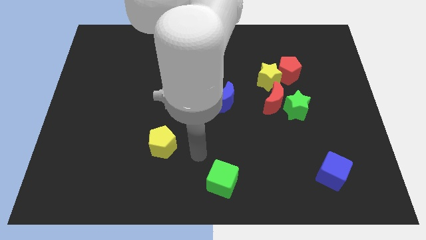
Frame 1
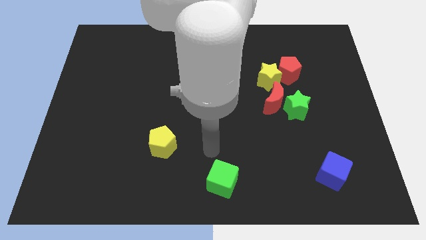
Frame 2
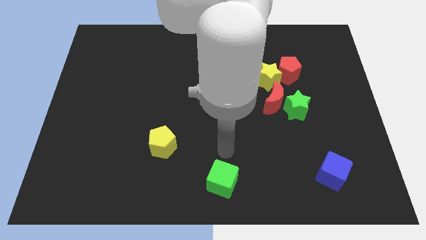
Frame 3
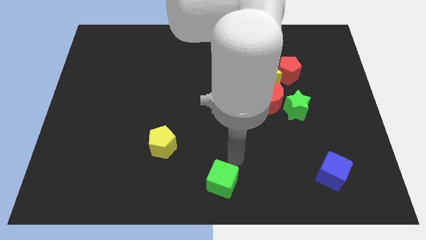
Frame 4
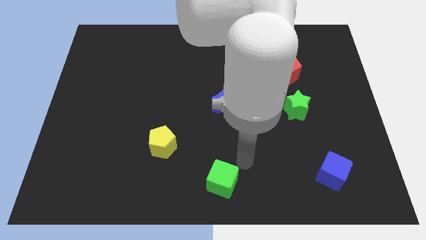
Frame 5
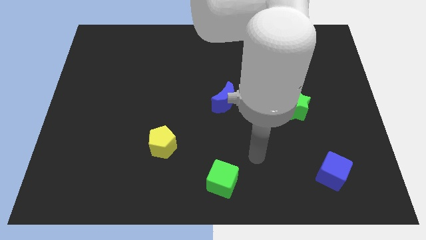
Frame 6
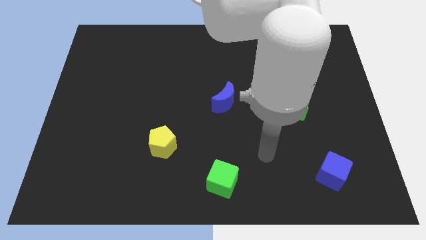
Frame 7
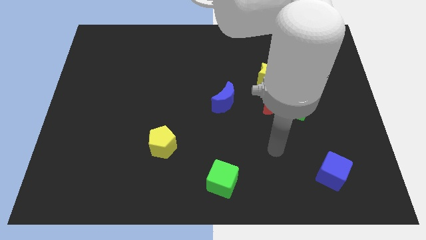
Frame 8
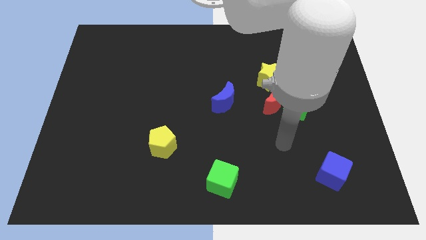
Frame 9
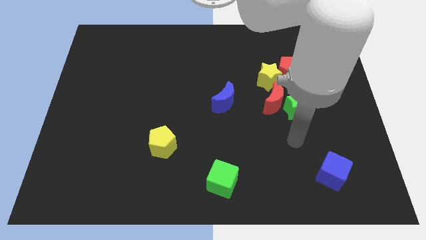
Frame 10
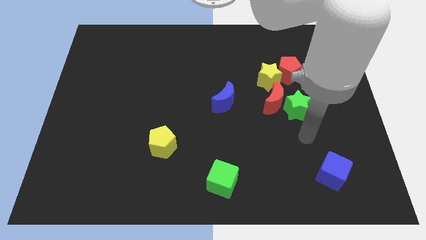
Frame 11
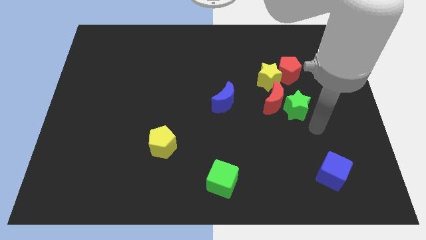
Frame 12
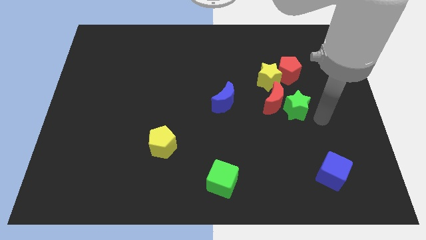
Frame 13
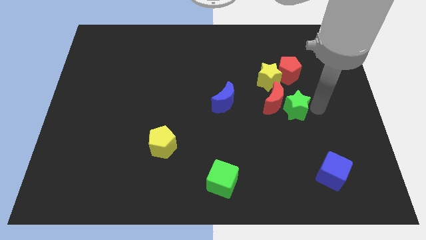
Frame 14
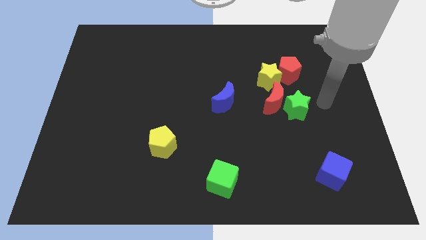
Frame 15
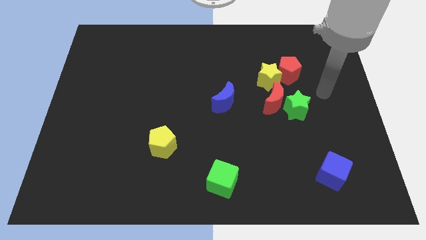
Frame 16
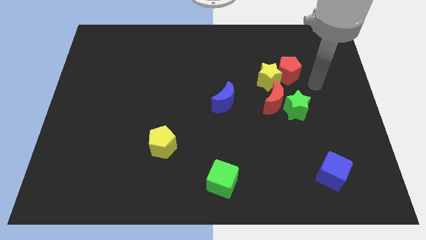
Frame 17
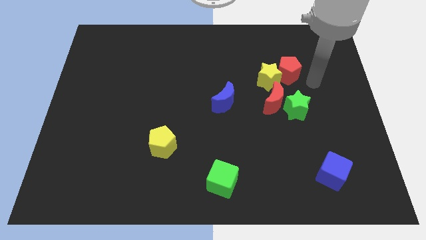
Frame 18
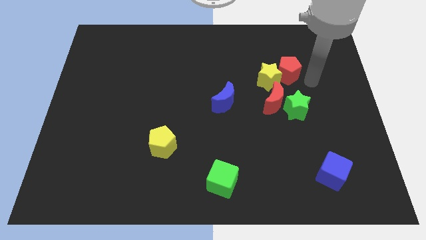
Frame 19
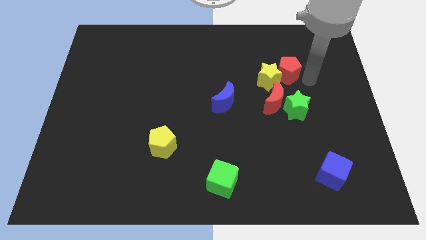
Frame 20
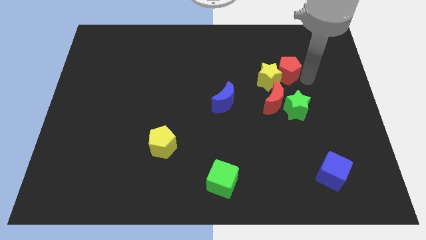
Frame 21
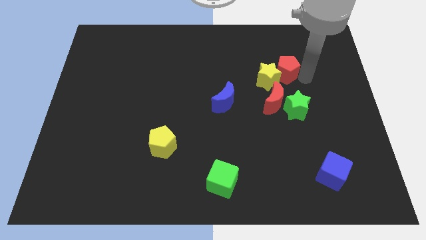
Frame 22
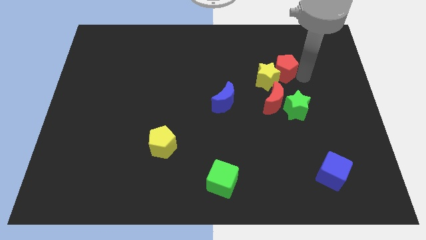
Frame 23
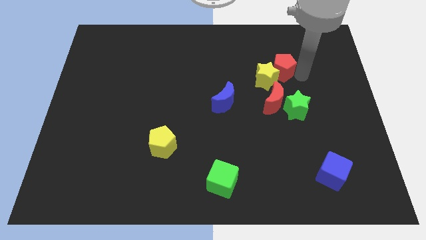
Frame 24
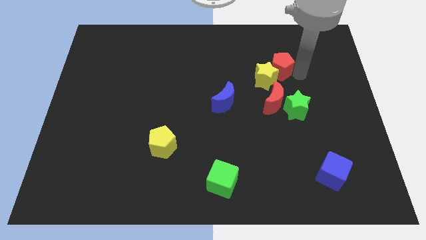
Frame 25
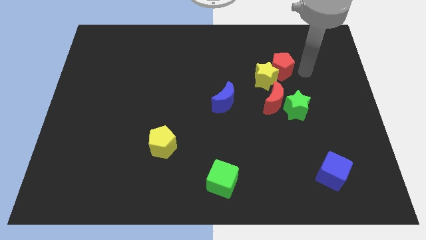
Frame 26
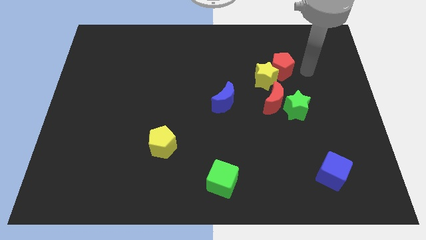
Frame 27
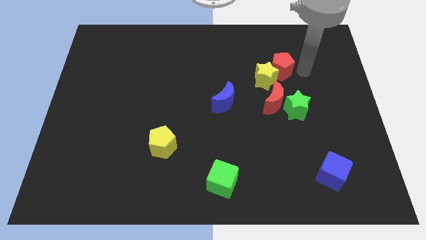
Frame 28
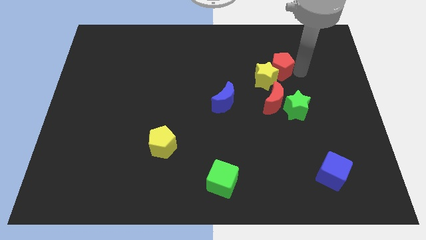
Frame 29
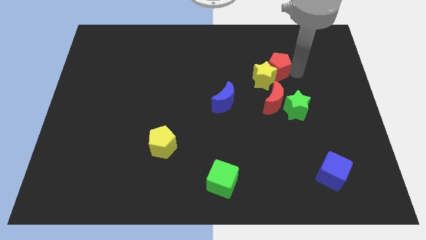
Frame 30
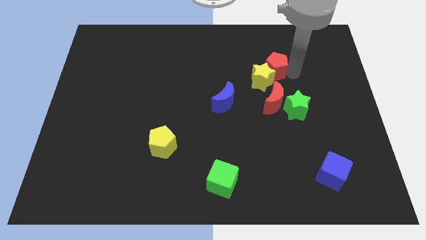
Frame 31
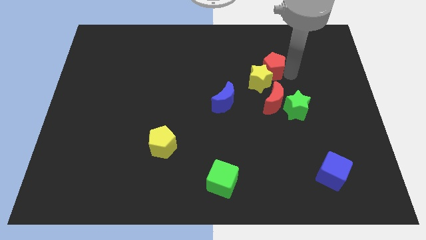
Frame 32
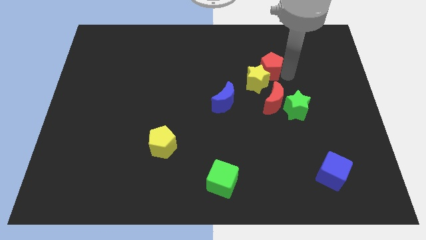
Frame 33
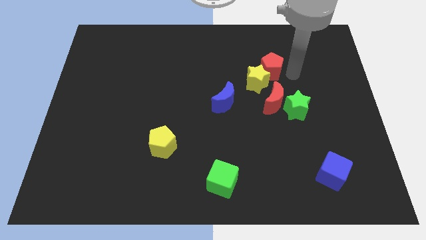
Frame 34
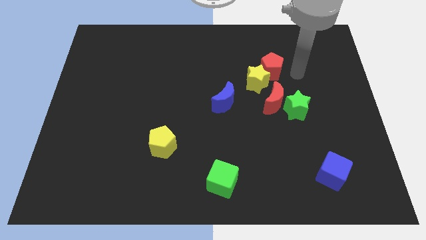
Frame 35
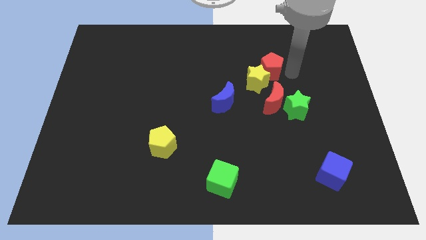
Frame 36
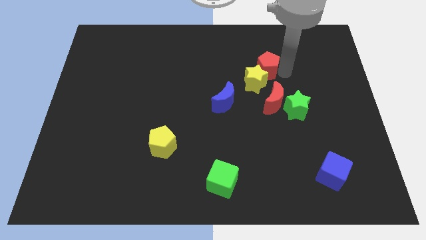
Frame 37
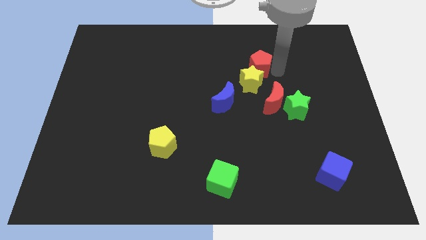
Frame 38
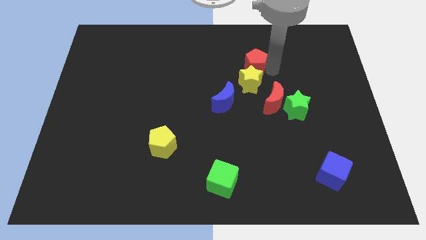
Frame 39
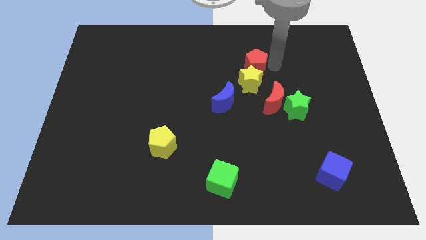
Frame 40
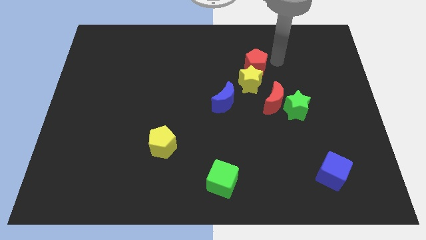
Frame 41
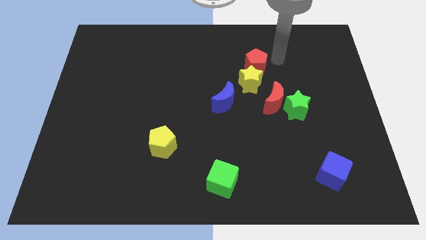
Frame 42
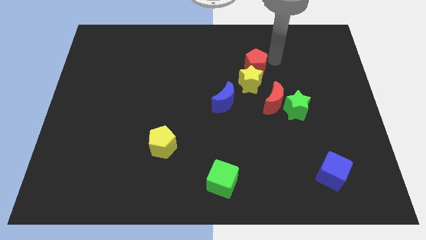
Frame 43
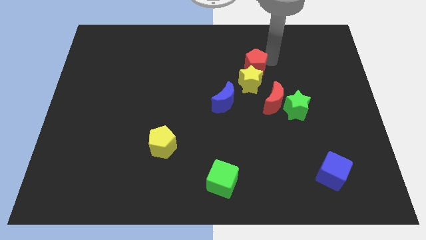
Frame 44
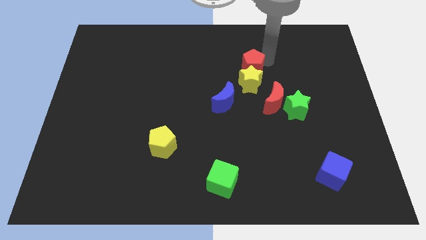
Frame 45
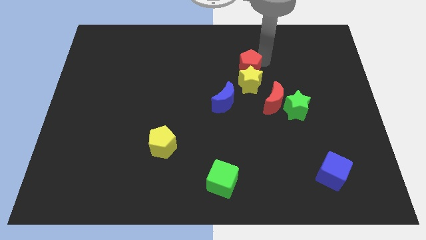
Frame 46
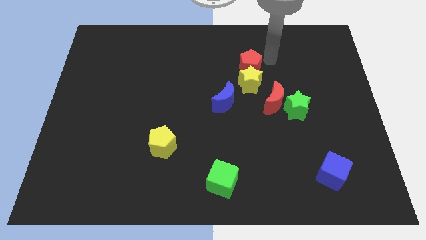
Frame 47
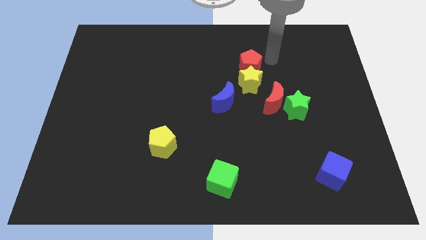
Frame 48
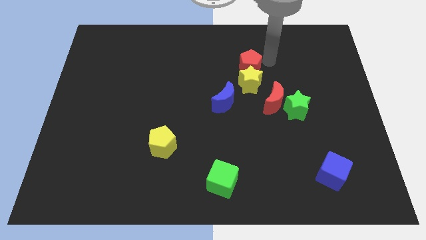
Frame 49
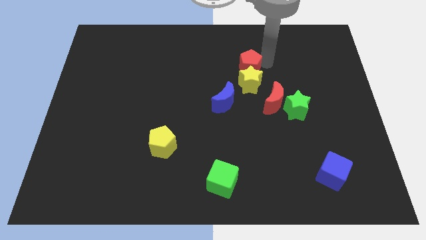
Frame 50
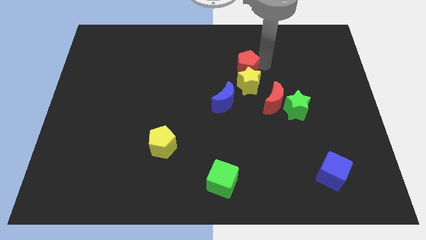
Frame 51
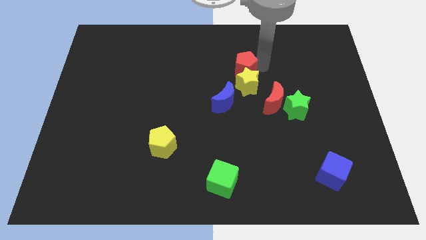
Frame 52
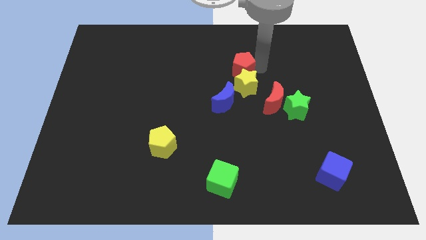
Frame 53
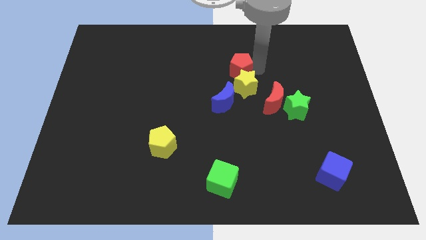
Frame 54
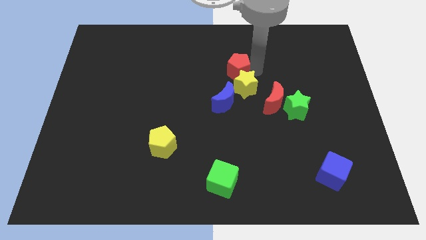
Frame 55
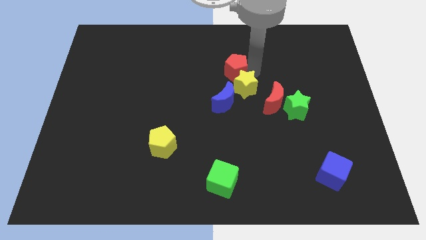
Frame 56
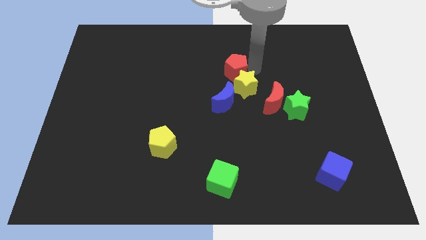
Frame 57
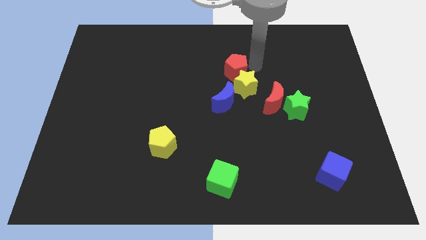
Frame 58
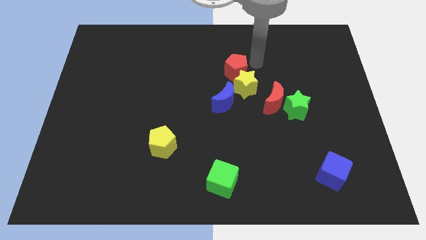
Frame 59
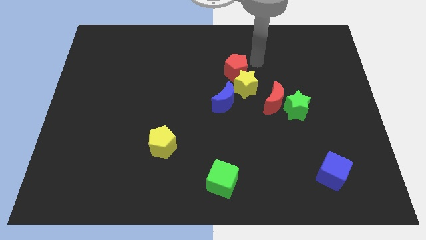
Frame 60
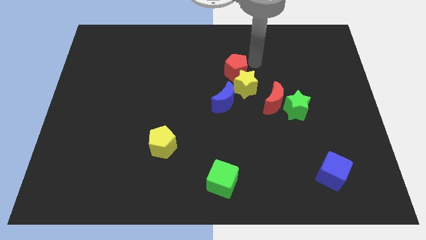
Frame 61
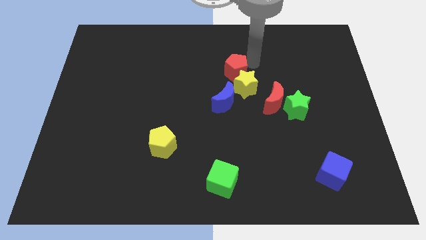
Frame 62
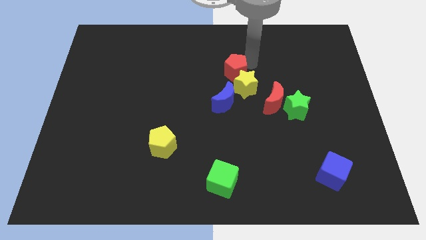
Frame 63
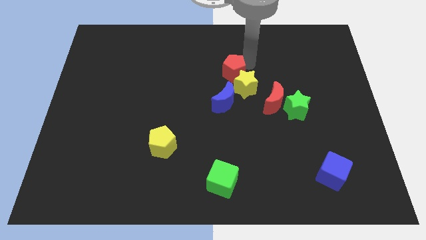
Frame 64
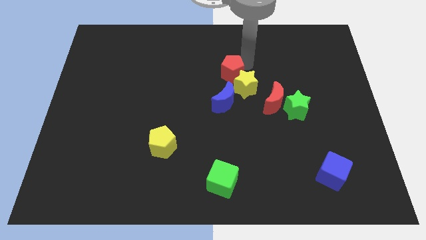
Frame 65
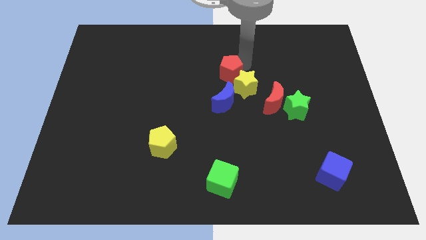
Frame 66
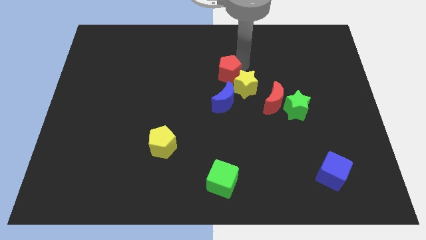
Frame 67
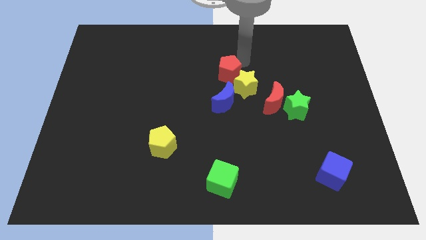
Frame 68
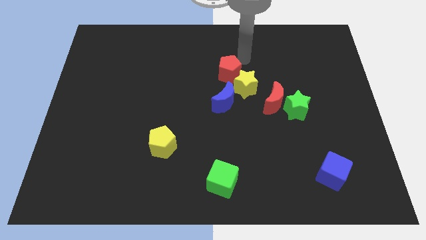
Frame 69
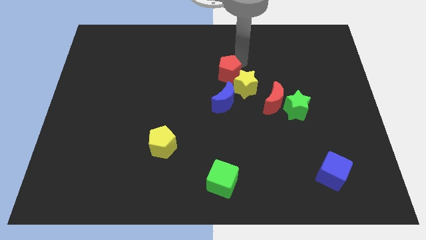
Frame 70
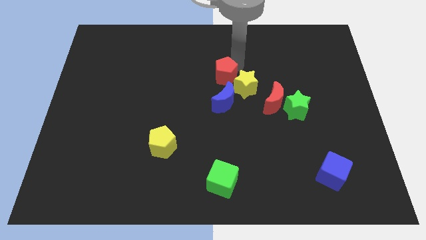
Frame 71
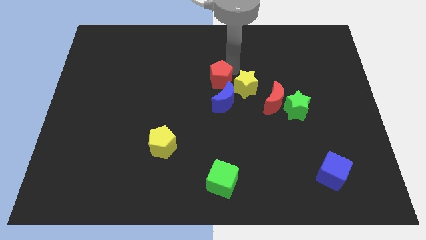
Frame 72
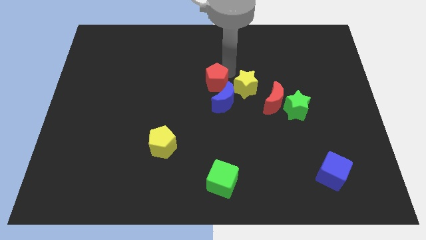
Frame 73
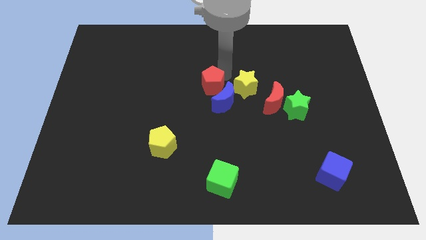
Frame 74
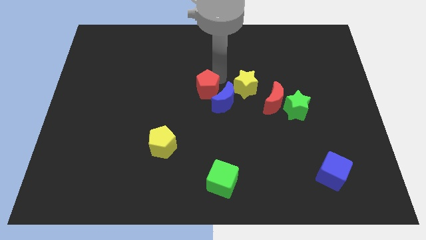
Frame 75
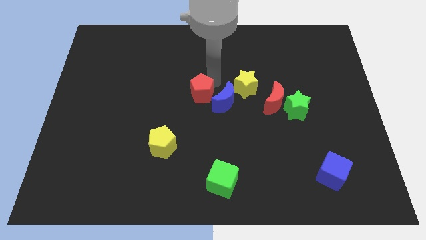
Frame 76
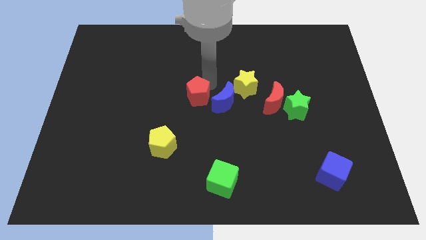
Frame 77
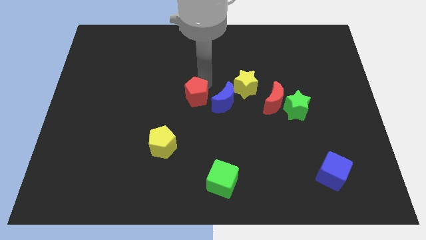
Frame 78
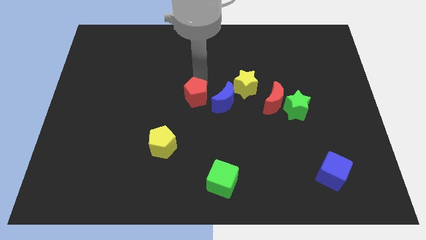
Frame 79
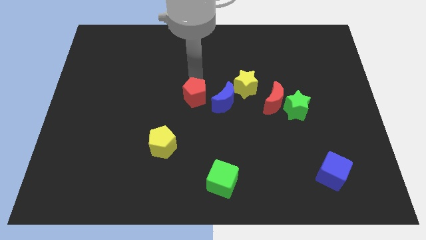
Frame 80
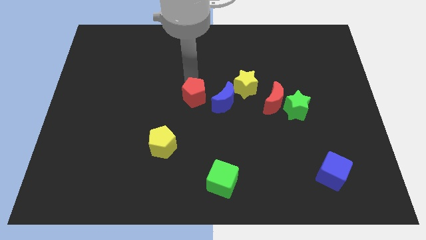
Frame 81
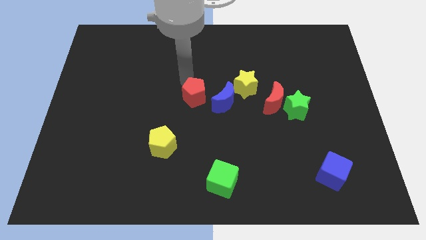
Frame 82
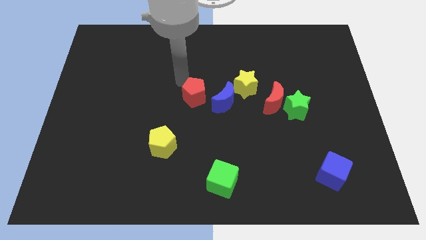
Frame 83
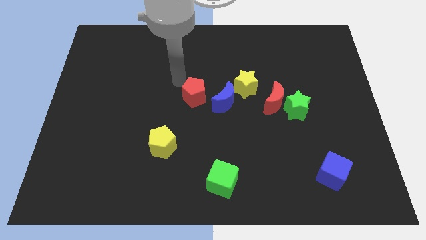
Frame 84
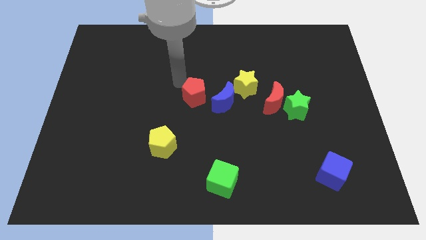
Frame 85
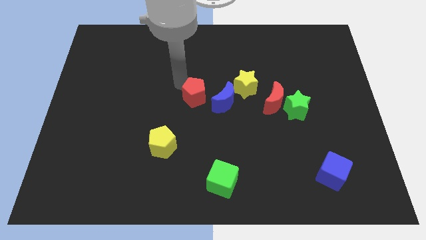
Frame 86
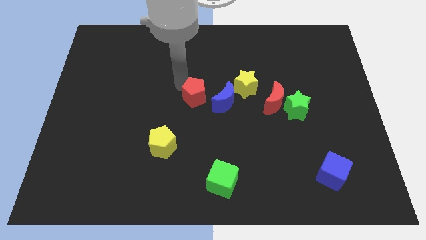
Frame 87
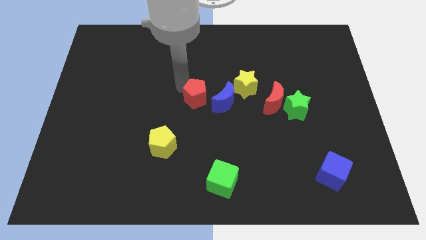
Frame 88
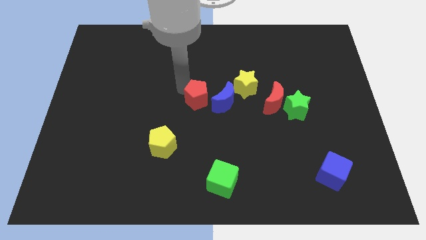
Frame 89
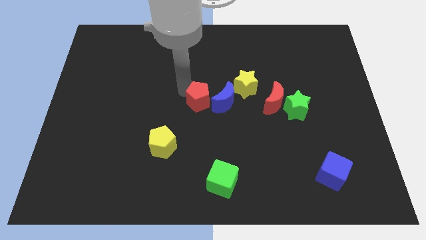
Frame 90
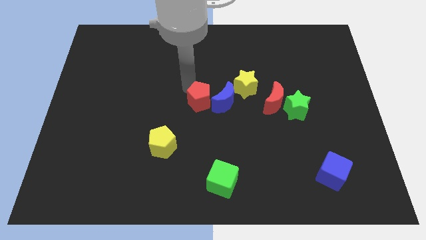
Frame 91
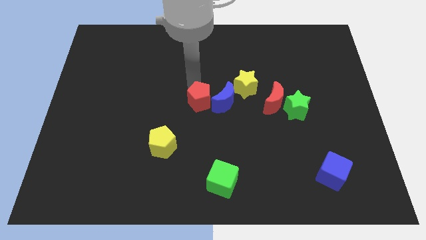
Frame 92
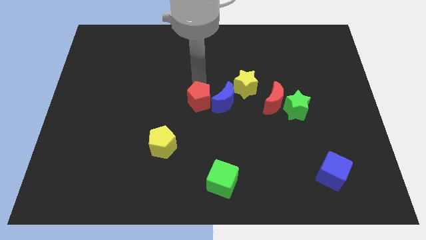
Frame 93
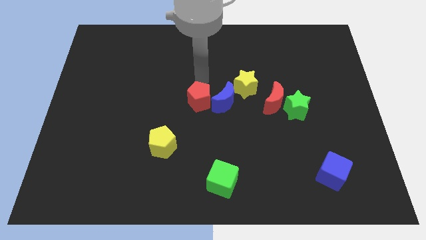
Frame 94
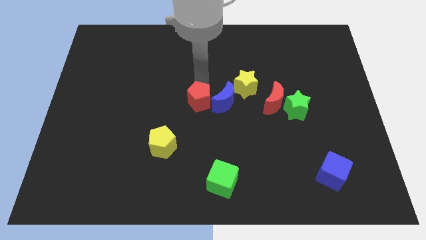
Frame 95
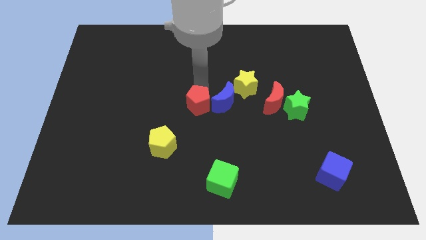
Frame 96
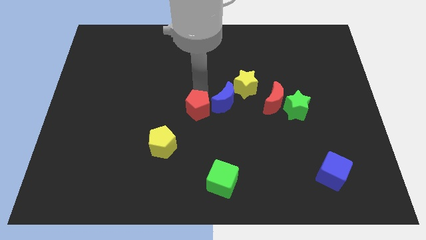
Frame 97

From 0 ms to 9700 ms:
slide the red pentagon downwards and to the left
